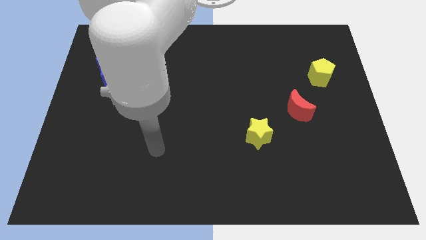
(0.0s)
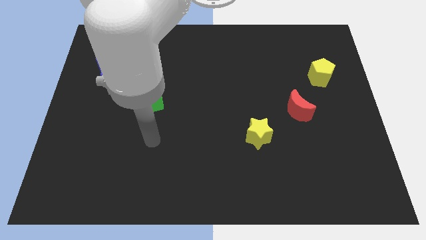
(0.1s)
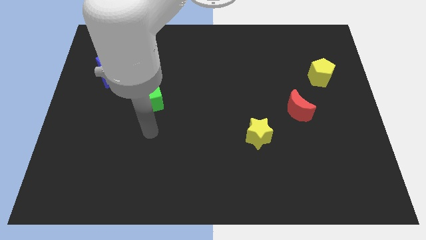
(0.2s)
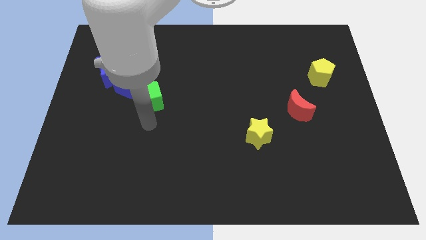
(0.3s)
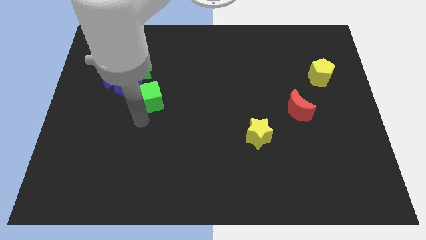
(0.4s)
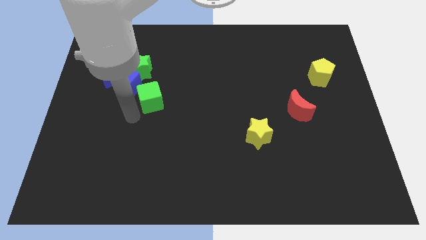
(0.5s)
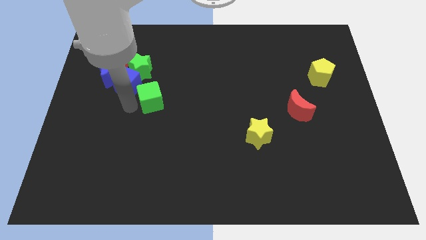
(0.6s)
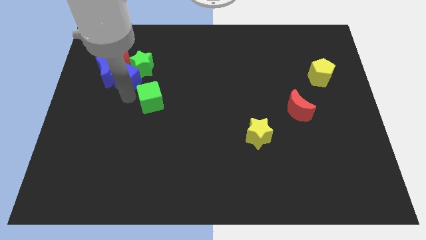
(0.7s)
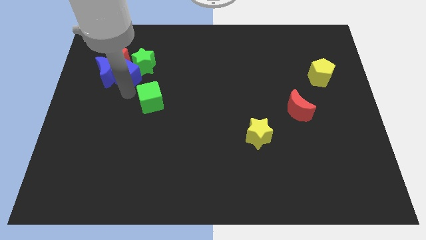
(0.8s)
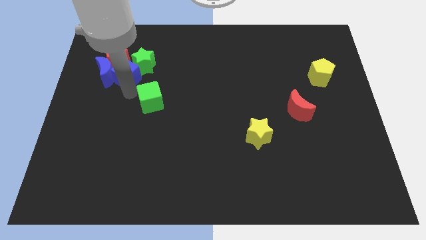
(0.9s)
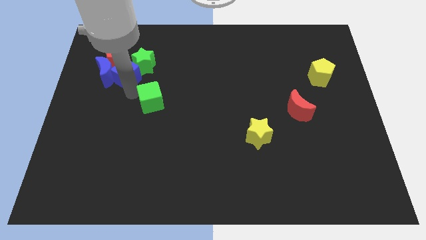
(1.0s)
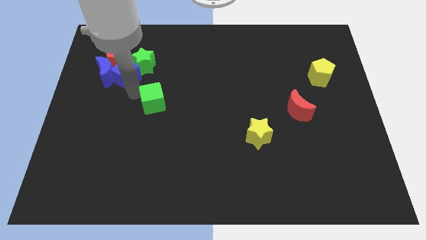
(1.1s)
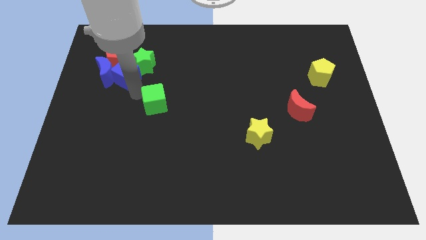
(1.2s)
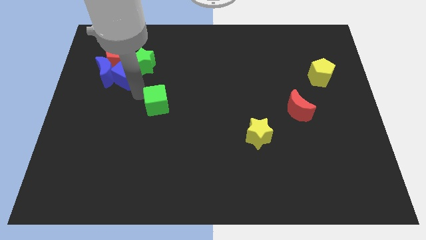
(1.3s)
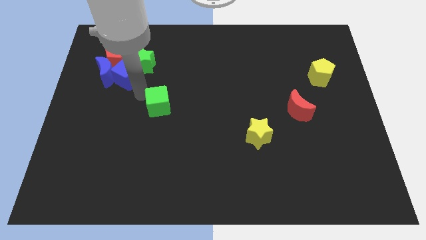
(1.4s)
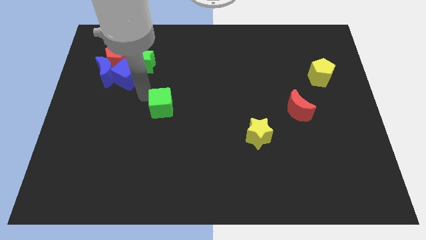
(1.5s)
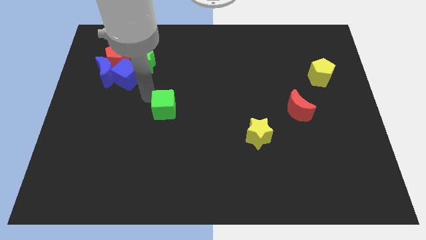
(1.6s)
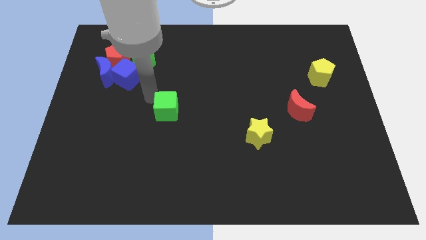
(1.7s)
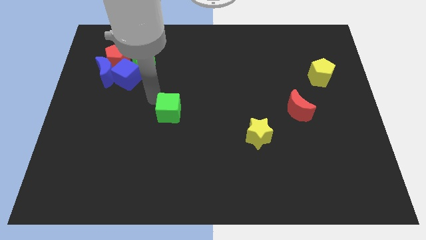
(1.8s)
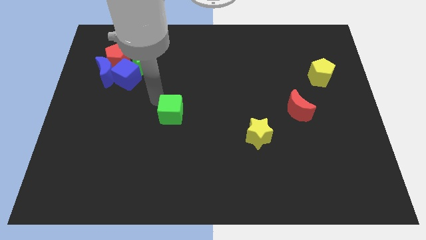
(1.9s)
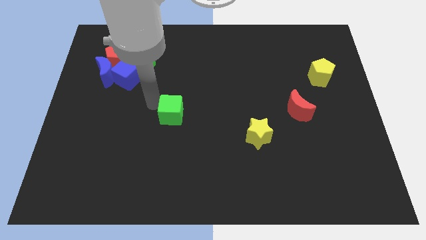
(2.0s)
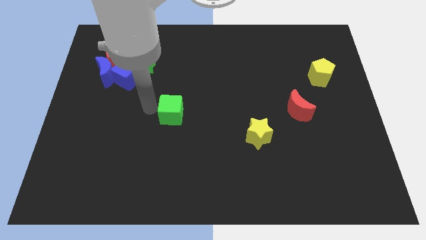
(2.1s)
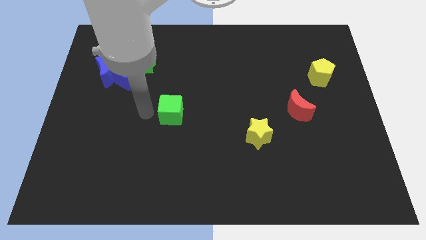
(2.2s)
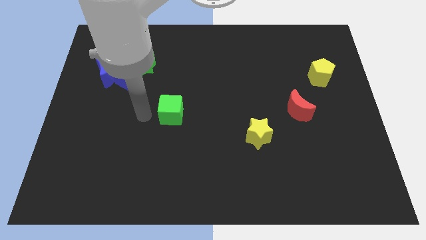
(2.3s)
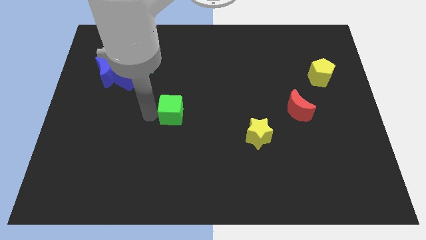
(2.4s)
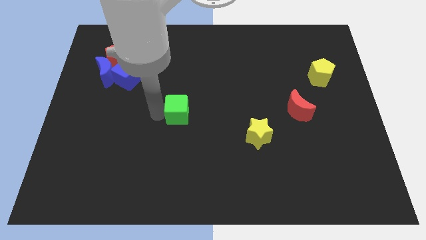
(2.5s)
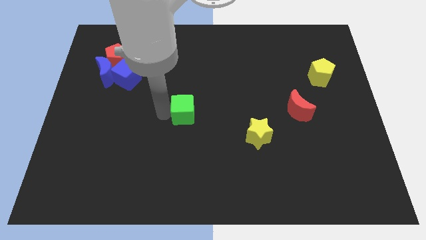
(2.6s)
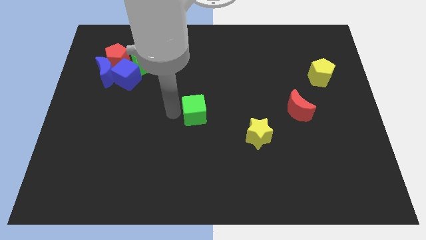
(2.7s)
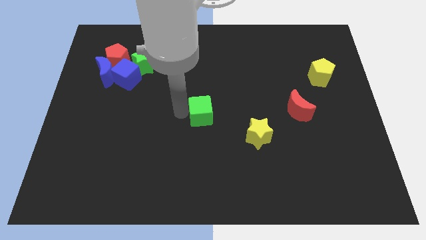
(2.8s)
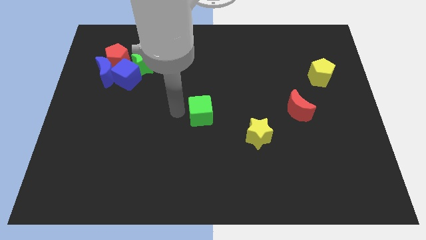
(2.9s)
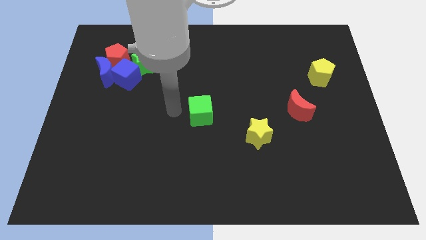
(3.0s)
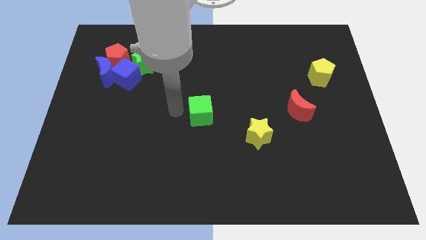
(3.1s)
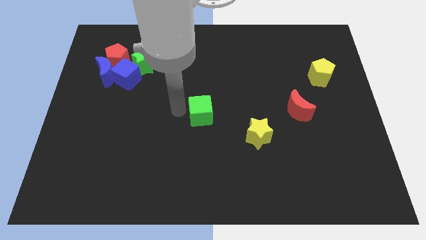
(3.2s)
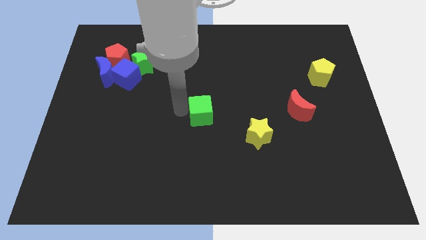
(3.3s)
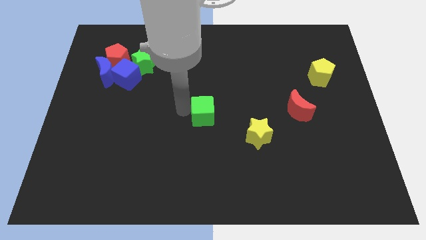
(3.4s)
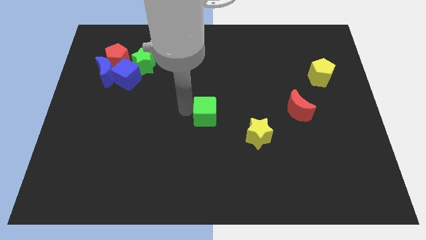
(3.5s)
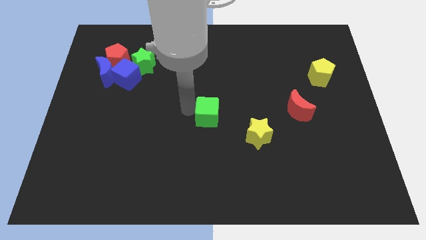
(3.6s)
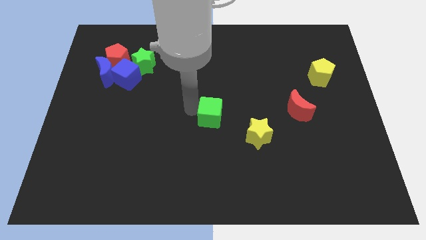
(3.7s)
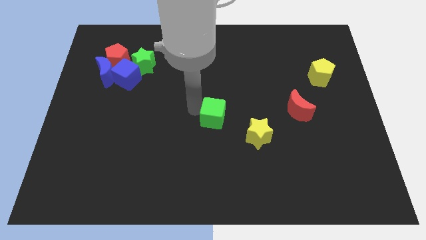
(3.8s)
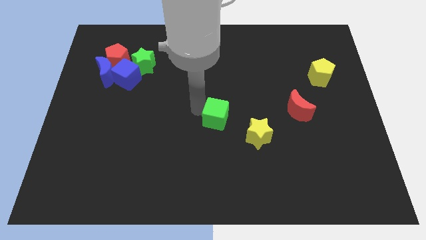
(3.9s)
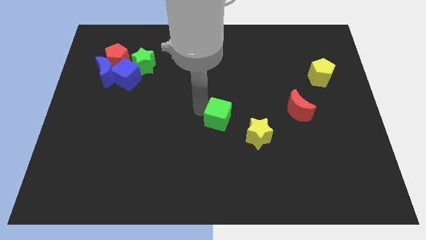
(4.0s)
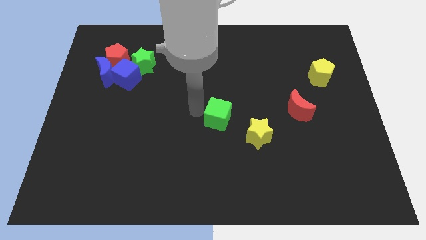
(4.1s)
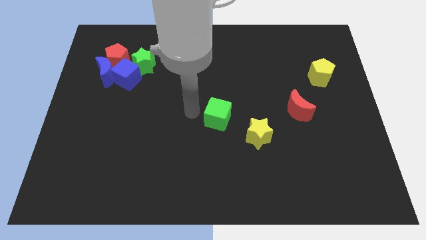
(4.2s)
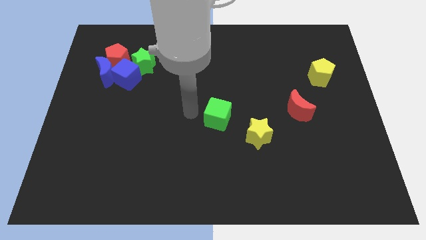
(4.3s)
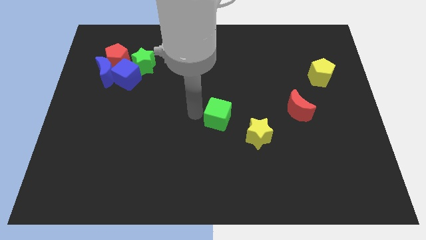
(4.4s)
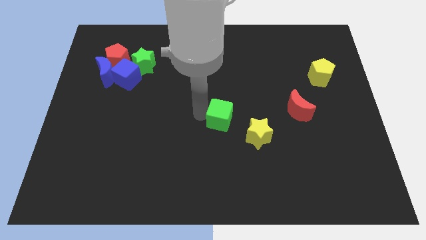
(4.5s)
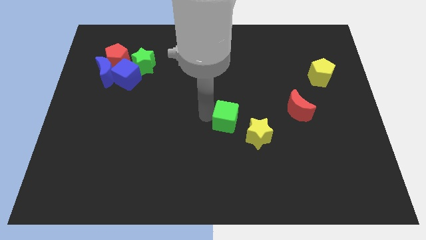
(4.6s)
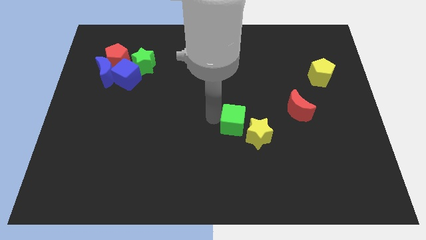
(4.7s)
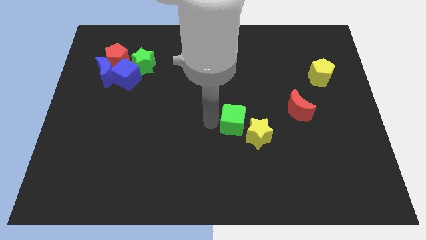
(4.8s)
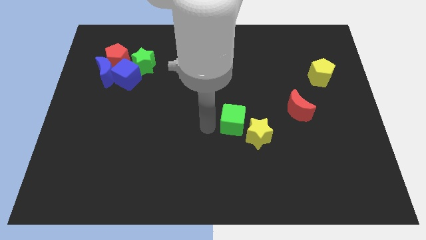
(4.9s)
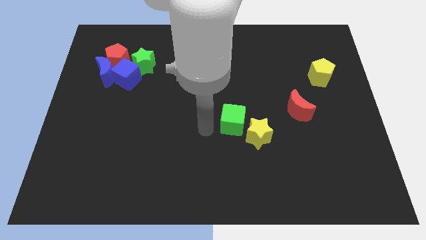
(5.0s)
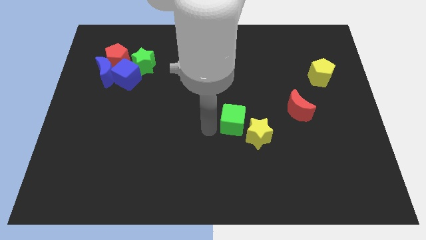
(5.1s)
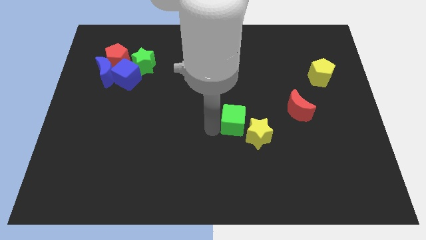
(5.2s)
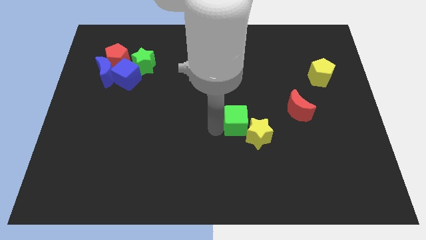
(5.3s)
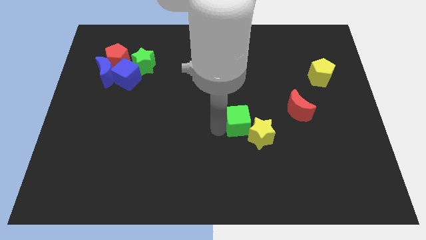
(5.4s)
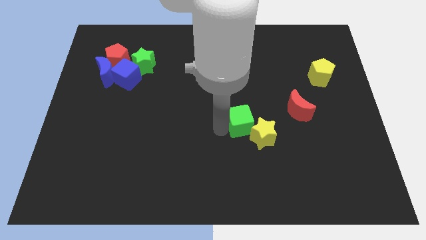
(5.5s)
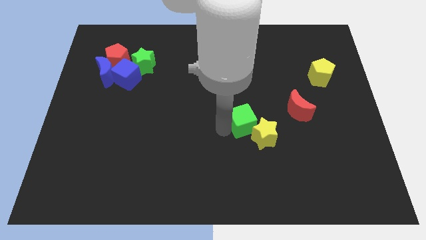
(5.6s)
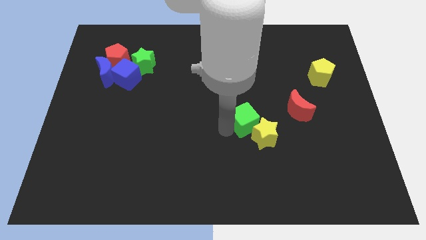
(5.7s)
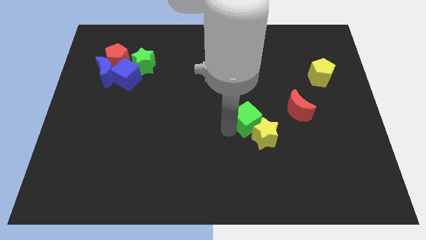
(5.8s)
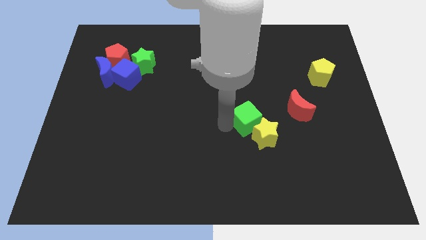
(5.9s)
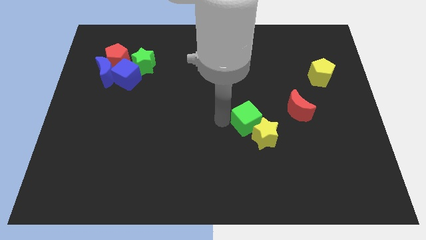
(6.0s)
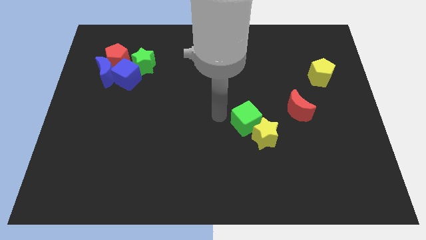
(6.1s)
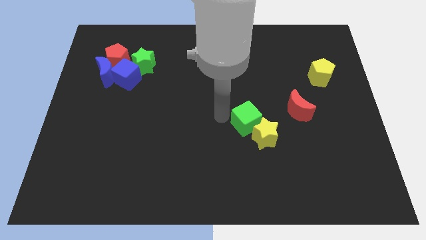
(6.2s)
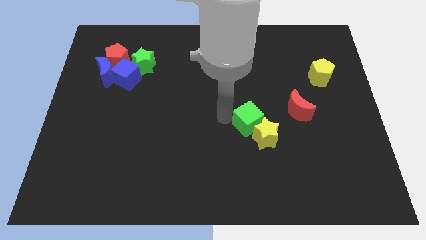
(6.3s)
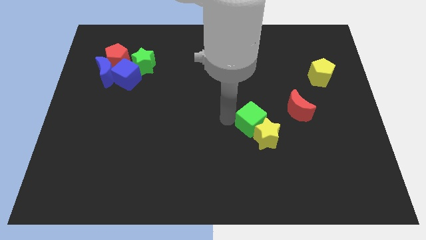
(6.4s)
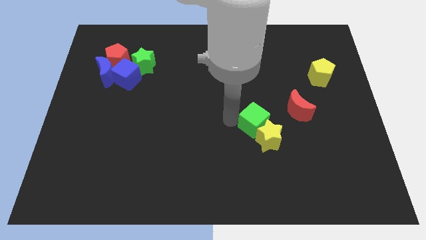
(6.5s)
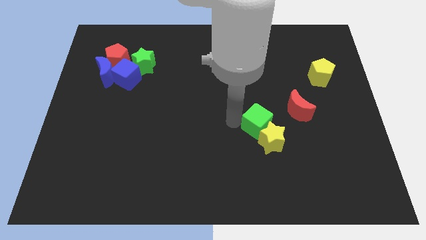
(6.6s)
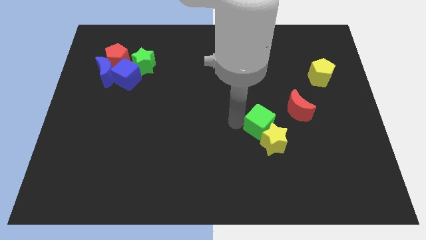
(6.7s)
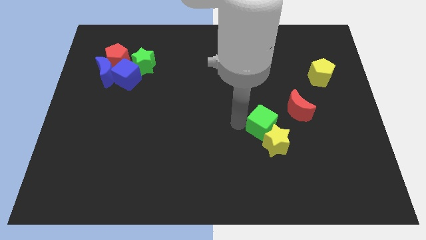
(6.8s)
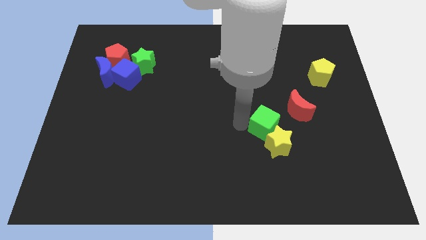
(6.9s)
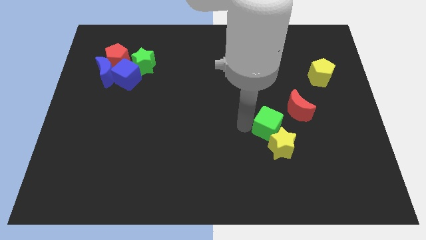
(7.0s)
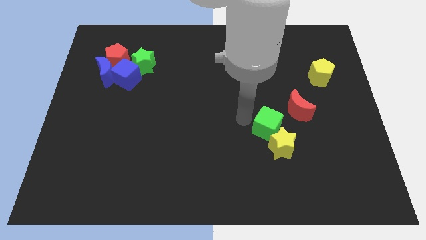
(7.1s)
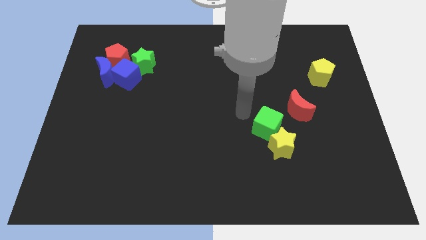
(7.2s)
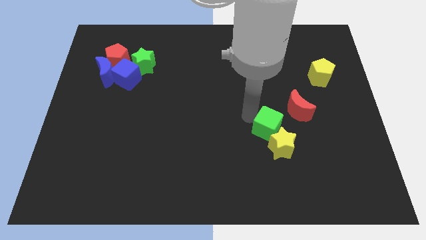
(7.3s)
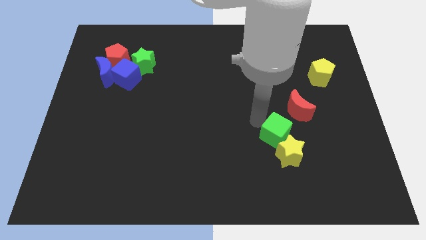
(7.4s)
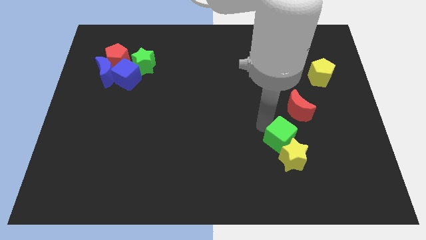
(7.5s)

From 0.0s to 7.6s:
push the green cube to the bottom of the red moon
